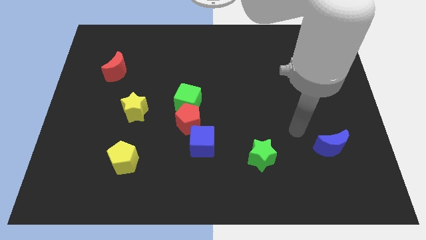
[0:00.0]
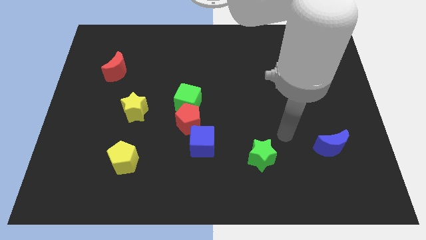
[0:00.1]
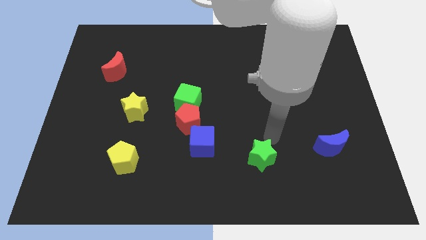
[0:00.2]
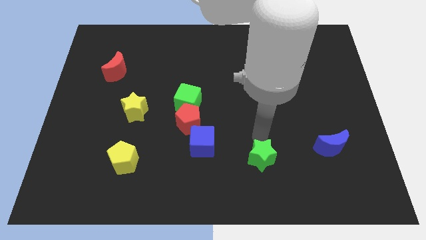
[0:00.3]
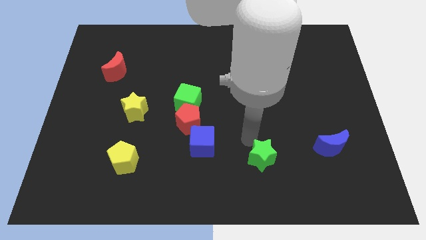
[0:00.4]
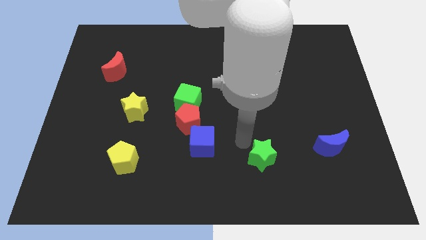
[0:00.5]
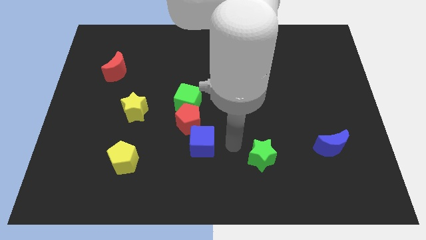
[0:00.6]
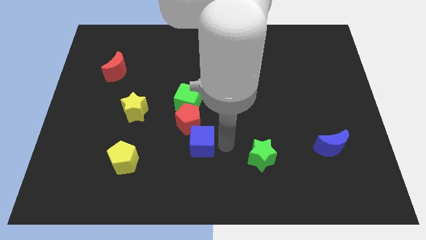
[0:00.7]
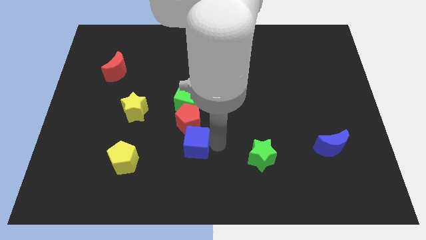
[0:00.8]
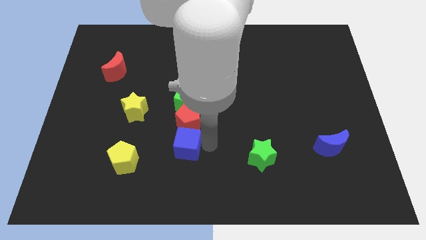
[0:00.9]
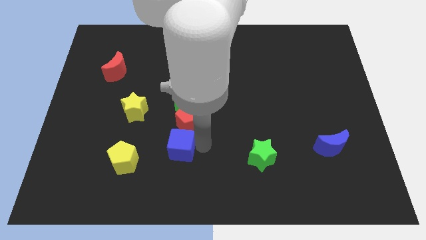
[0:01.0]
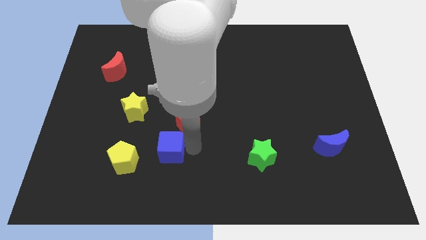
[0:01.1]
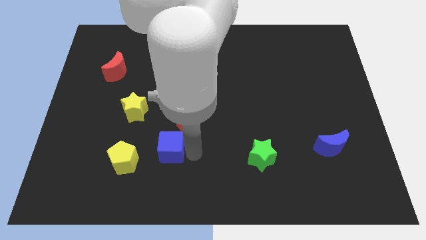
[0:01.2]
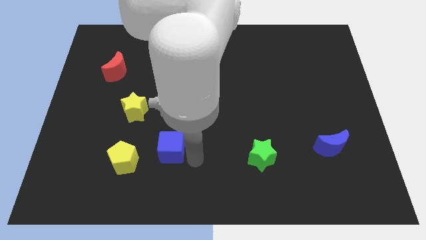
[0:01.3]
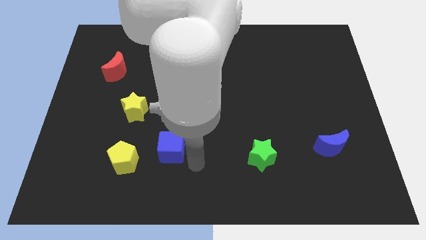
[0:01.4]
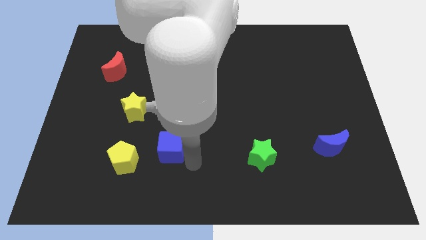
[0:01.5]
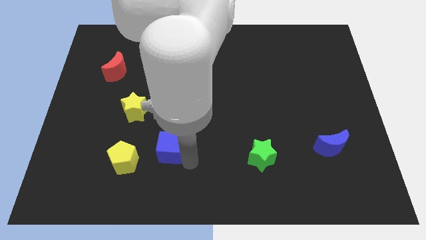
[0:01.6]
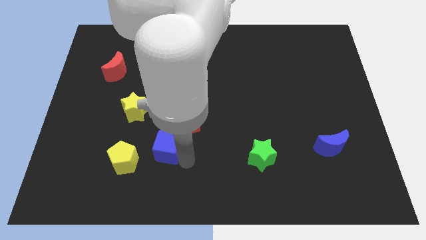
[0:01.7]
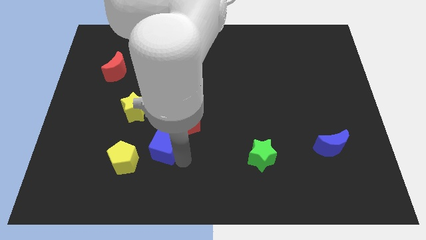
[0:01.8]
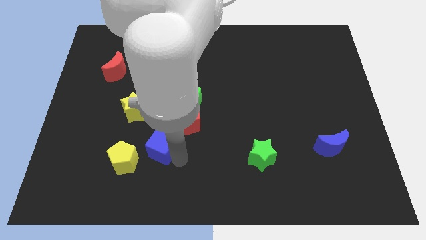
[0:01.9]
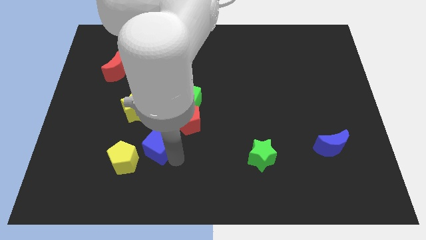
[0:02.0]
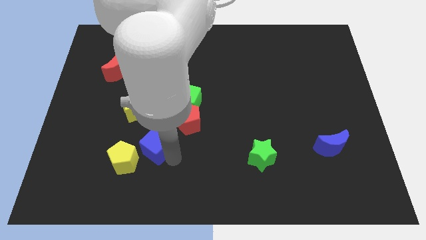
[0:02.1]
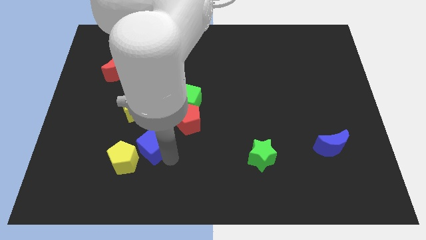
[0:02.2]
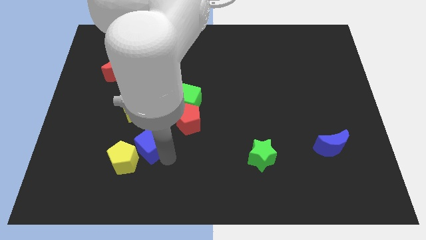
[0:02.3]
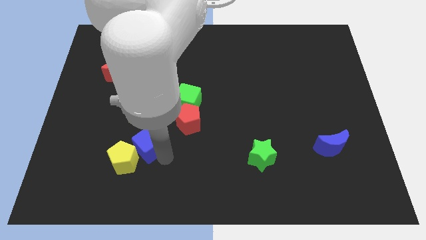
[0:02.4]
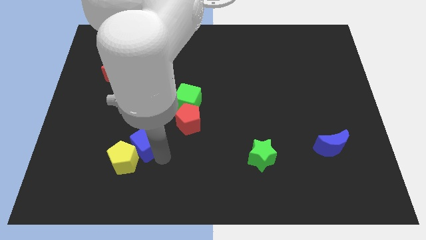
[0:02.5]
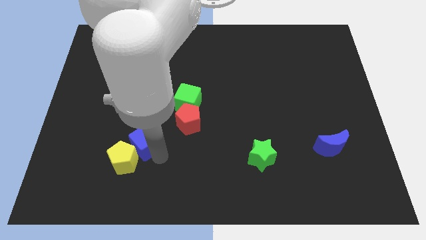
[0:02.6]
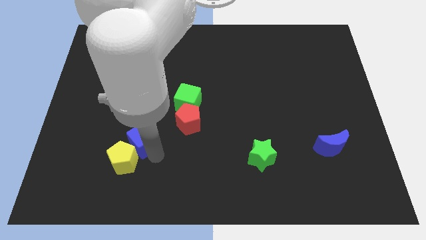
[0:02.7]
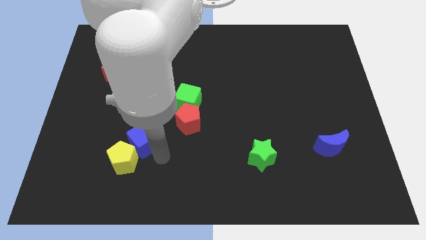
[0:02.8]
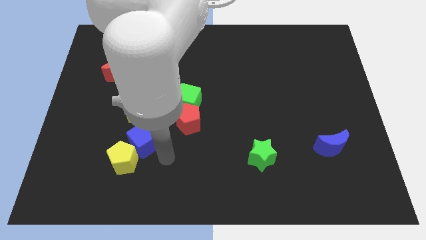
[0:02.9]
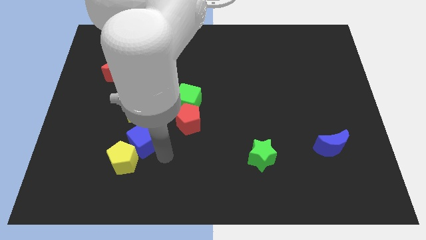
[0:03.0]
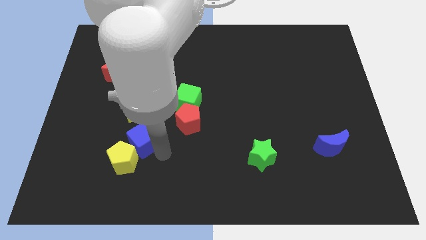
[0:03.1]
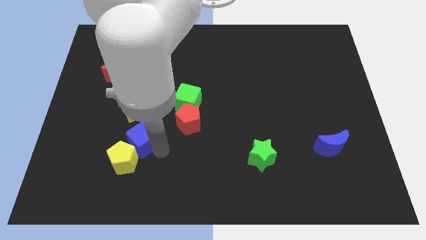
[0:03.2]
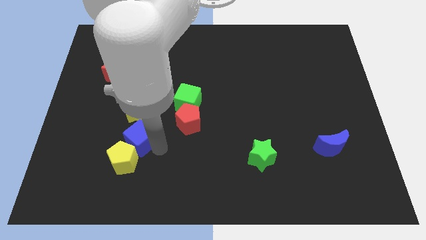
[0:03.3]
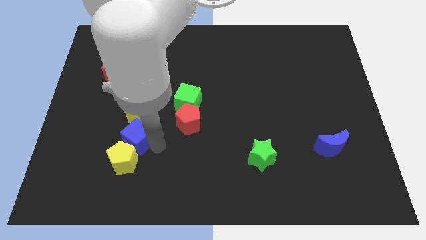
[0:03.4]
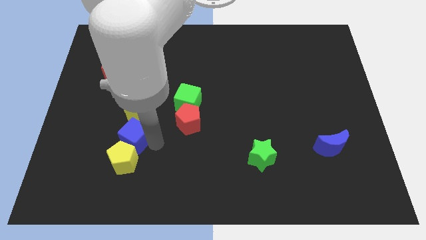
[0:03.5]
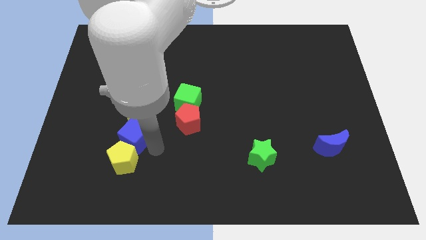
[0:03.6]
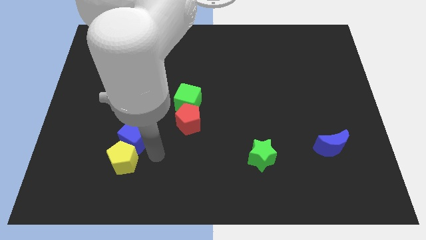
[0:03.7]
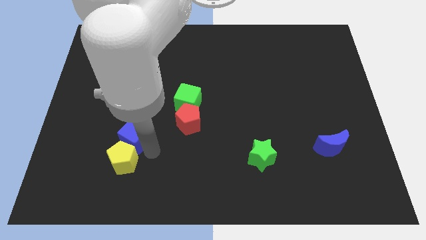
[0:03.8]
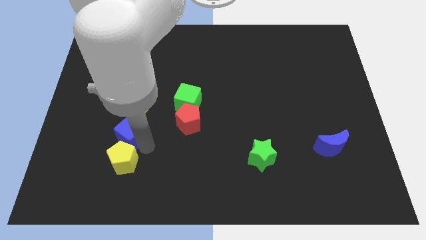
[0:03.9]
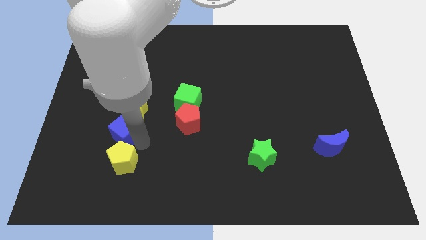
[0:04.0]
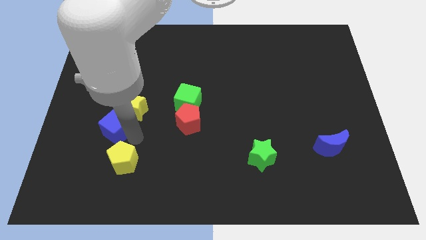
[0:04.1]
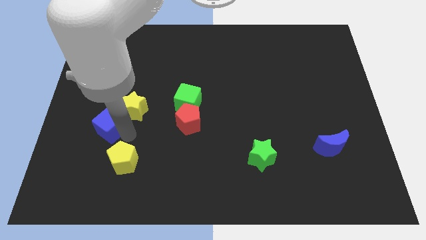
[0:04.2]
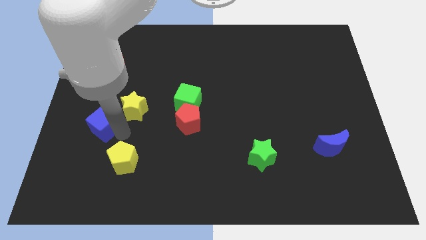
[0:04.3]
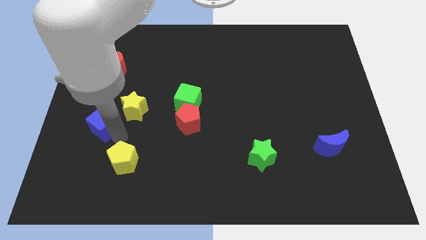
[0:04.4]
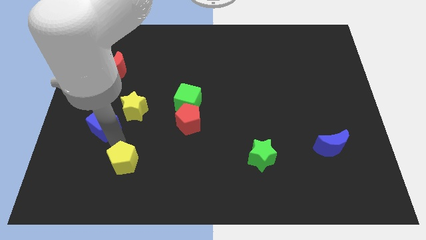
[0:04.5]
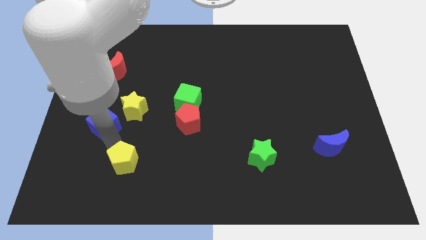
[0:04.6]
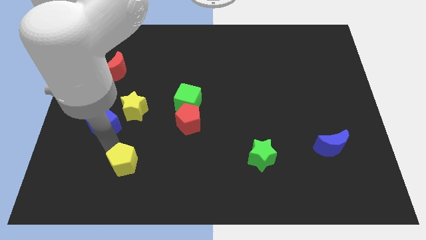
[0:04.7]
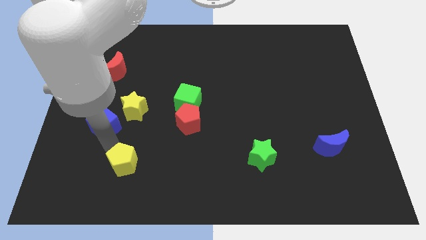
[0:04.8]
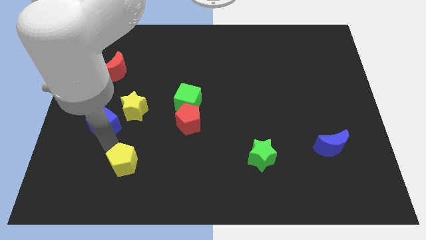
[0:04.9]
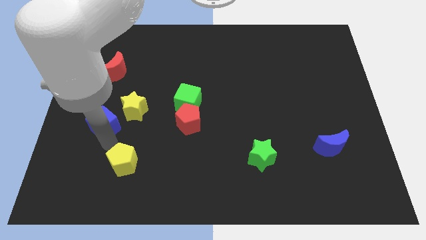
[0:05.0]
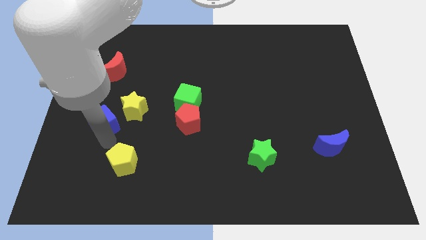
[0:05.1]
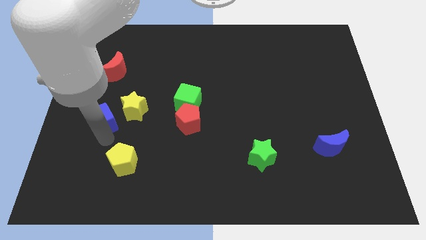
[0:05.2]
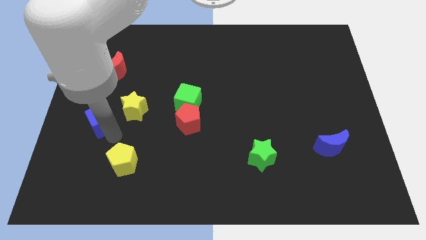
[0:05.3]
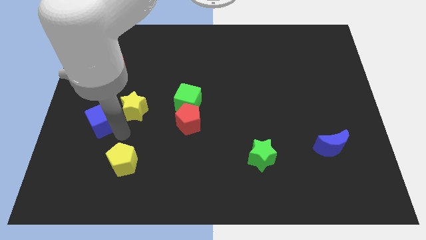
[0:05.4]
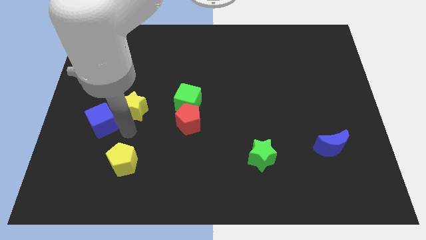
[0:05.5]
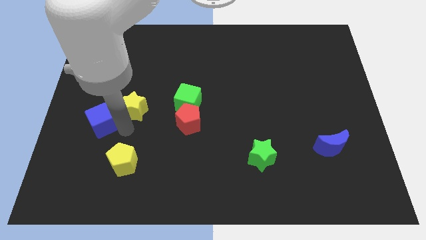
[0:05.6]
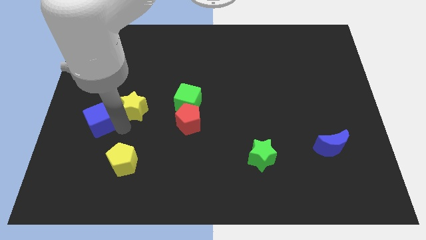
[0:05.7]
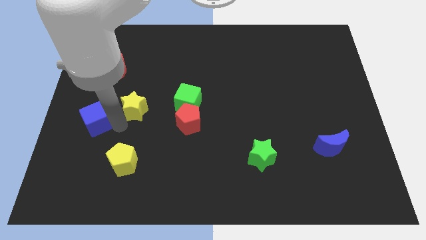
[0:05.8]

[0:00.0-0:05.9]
slide the blue cube to the left side
